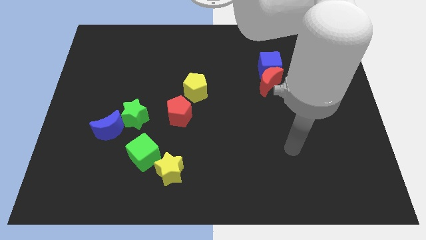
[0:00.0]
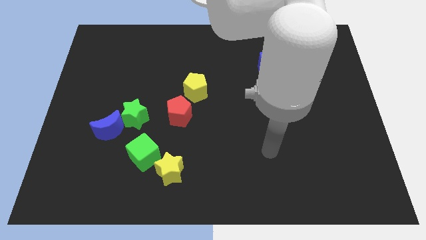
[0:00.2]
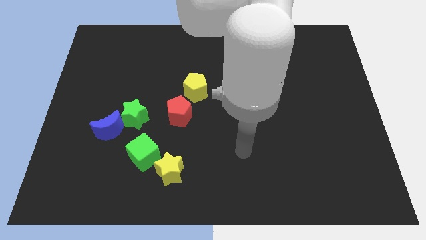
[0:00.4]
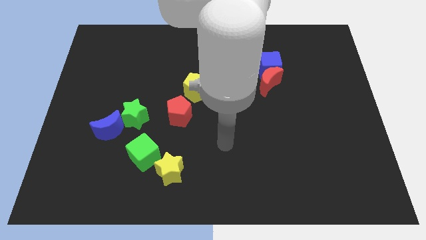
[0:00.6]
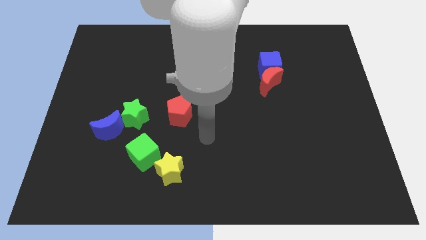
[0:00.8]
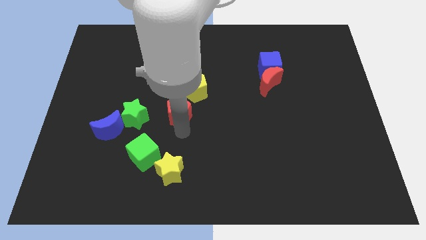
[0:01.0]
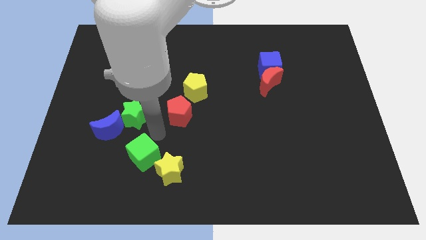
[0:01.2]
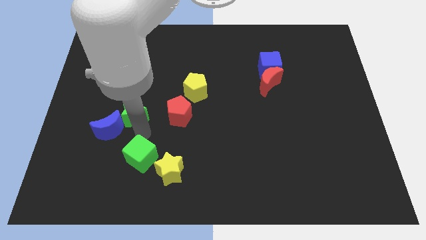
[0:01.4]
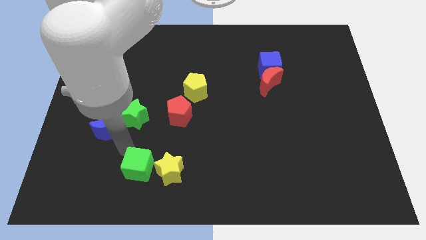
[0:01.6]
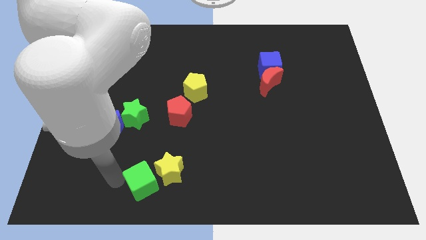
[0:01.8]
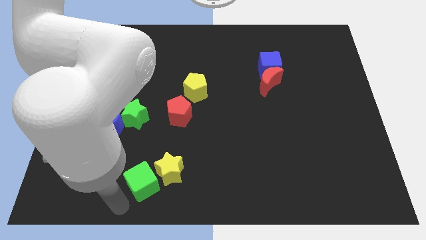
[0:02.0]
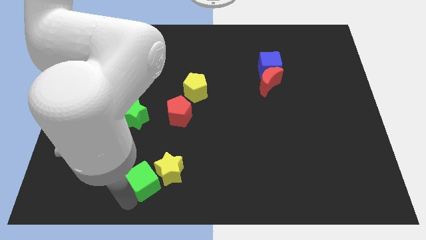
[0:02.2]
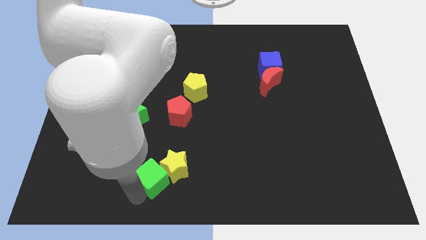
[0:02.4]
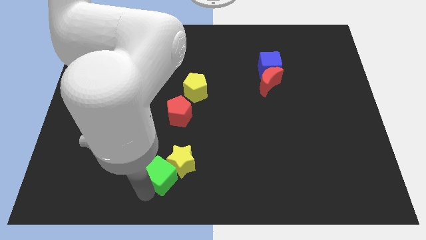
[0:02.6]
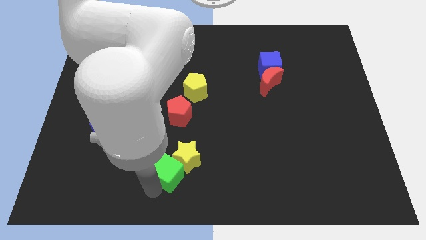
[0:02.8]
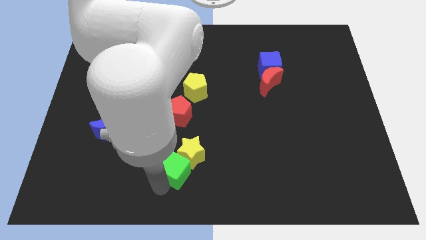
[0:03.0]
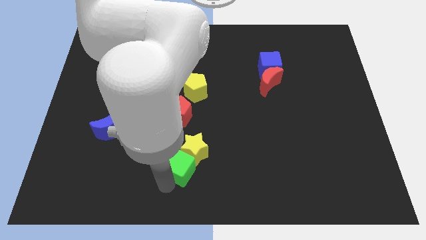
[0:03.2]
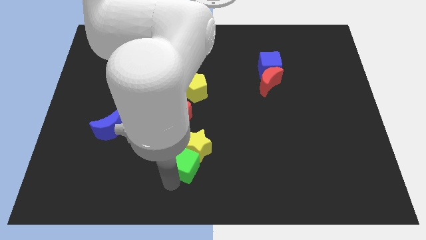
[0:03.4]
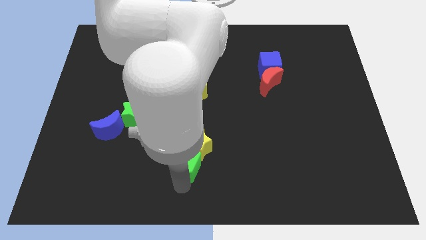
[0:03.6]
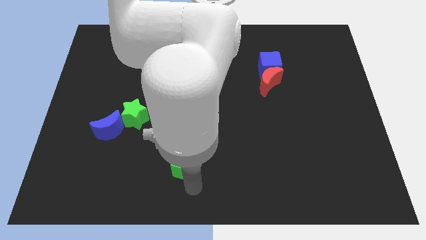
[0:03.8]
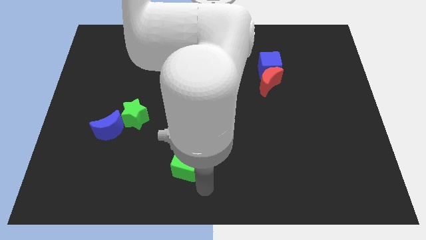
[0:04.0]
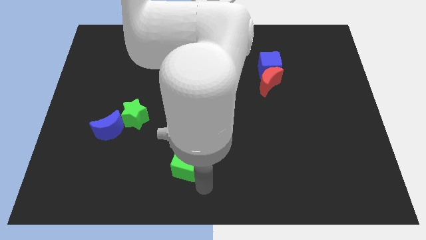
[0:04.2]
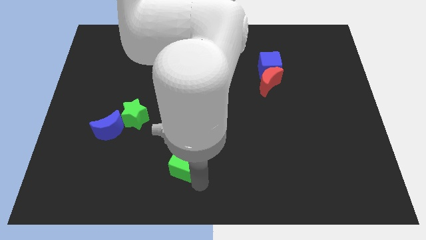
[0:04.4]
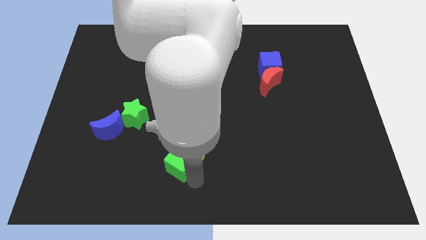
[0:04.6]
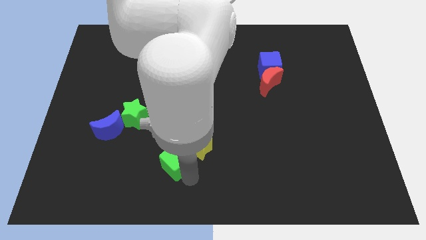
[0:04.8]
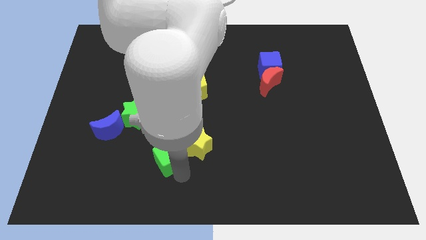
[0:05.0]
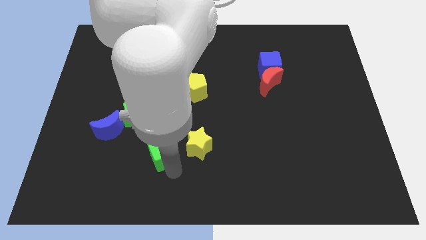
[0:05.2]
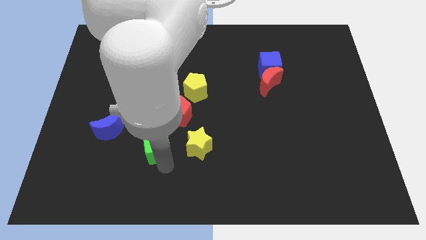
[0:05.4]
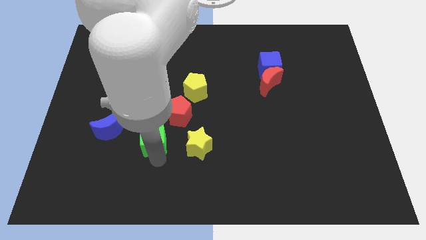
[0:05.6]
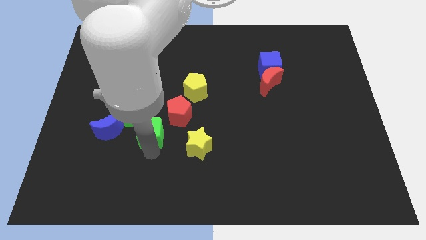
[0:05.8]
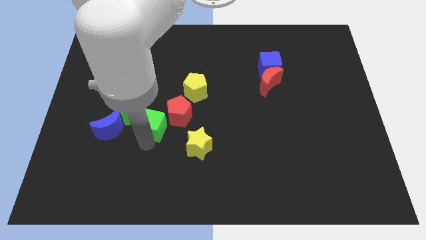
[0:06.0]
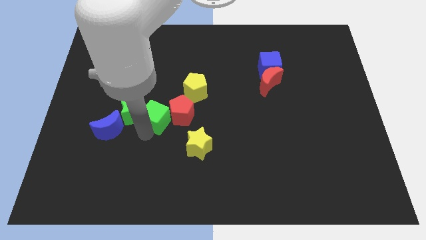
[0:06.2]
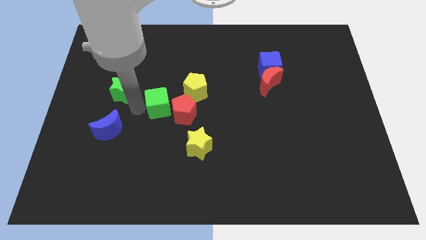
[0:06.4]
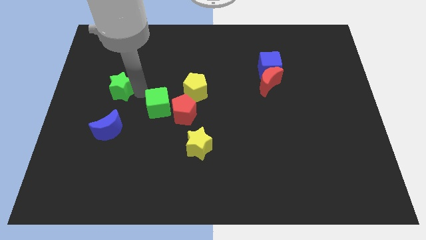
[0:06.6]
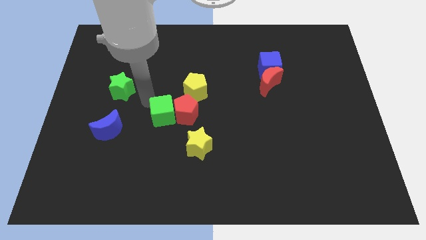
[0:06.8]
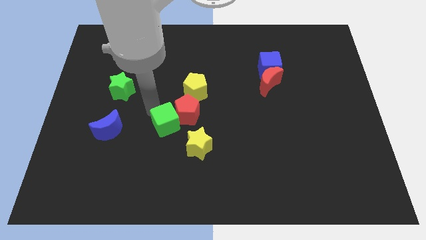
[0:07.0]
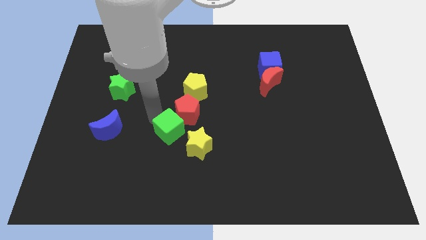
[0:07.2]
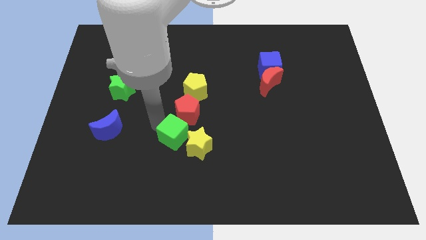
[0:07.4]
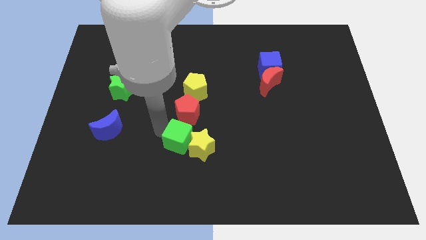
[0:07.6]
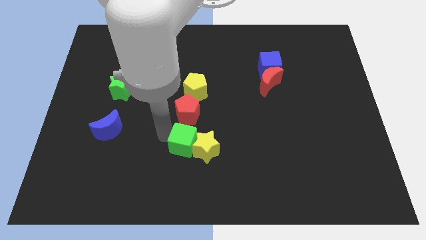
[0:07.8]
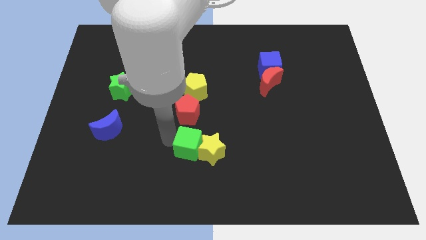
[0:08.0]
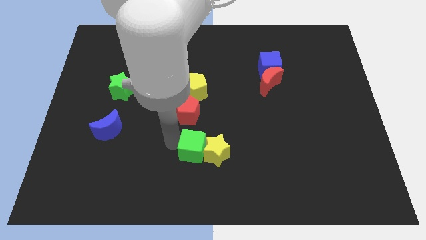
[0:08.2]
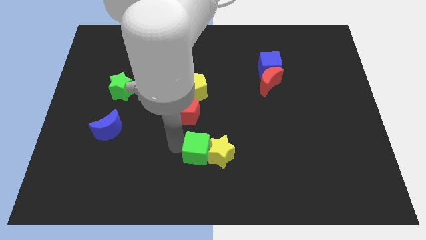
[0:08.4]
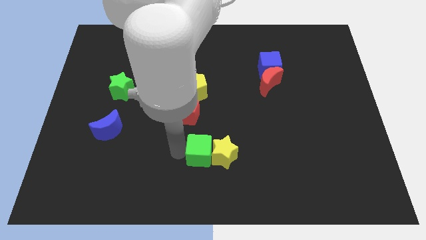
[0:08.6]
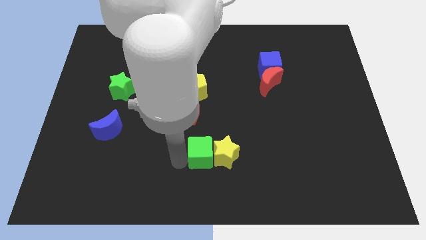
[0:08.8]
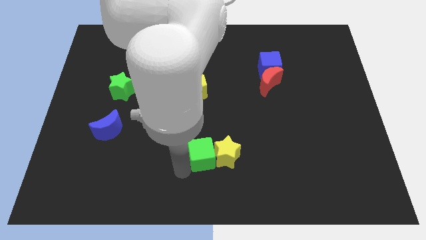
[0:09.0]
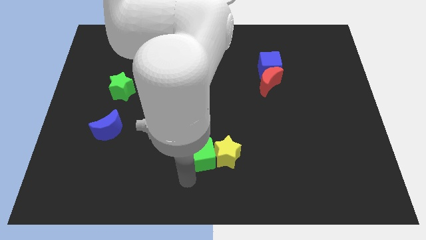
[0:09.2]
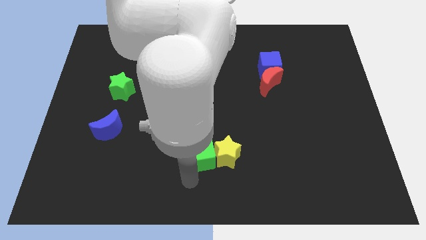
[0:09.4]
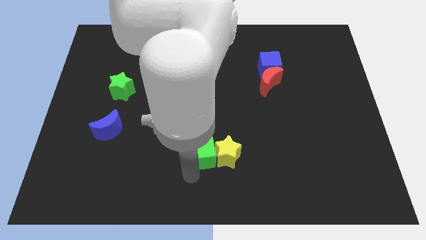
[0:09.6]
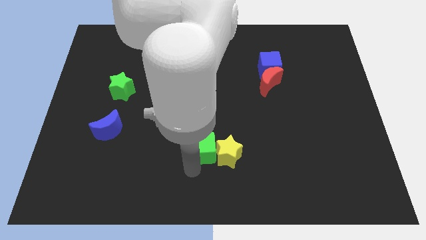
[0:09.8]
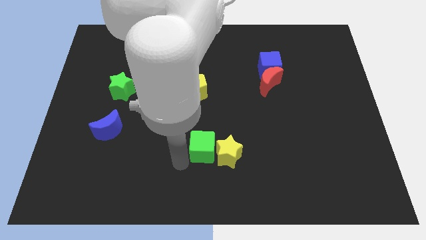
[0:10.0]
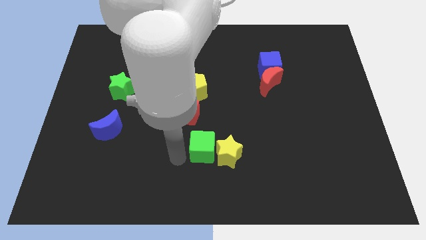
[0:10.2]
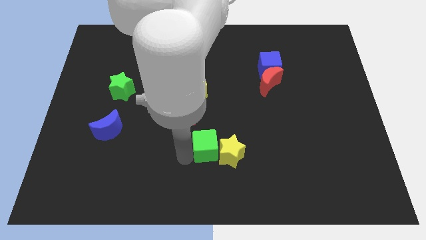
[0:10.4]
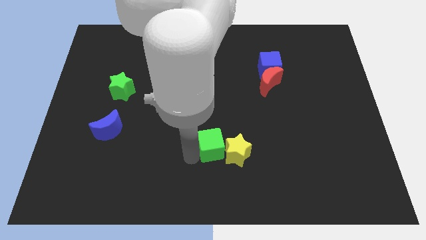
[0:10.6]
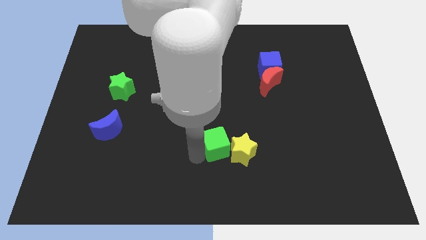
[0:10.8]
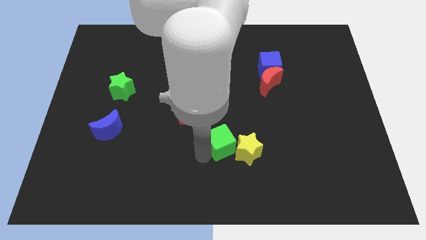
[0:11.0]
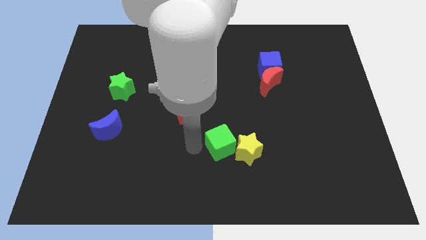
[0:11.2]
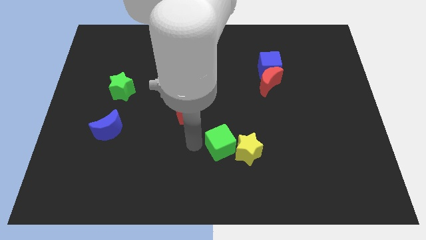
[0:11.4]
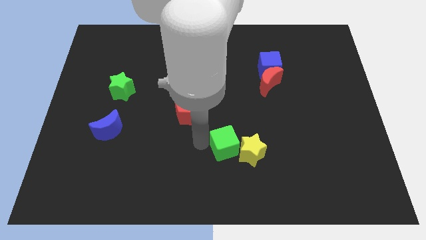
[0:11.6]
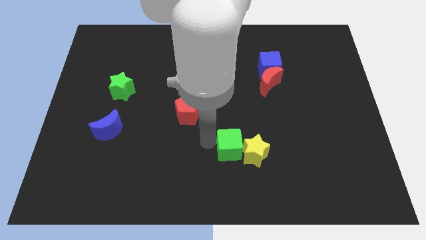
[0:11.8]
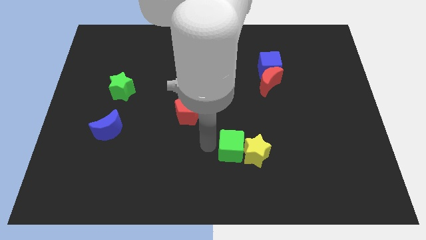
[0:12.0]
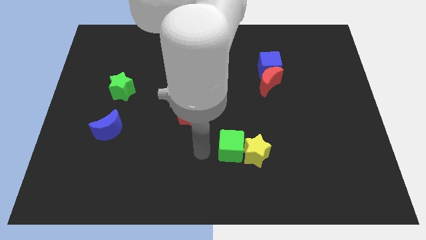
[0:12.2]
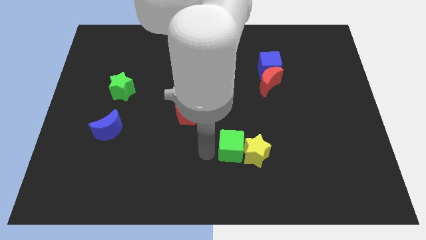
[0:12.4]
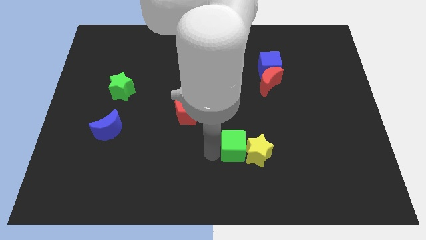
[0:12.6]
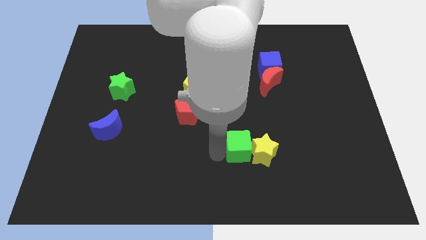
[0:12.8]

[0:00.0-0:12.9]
push the green cube right

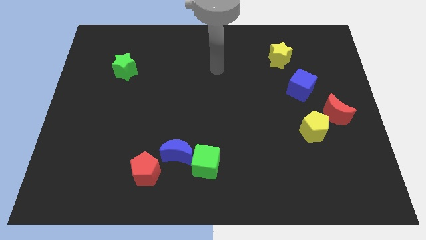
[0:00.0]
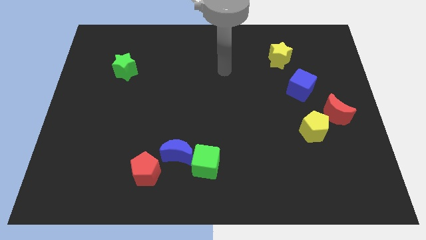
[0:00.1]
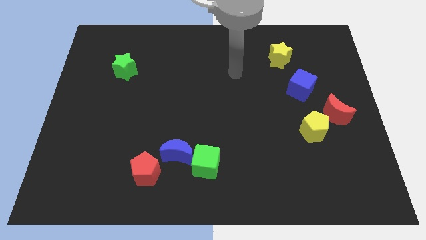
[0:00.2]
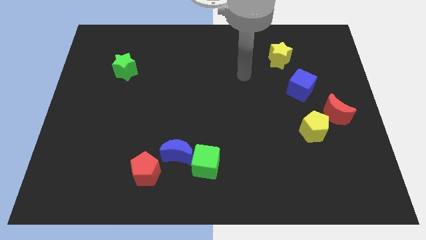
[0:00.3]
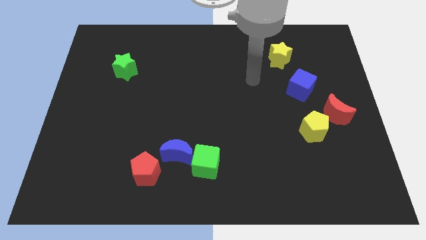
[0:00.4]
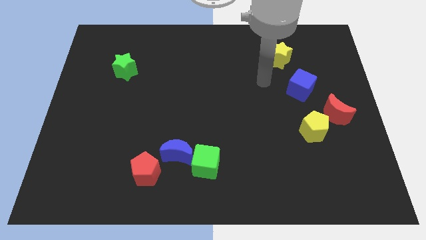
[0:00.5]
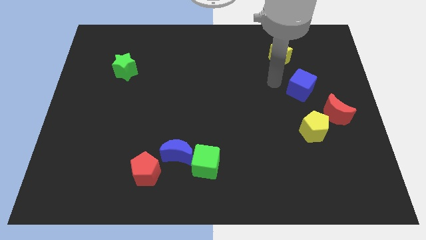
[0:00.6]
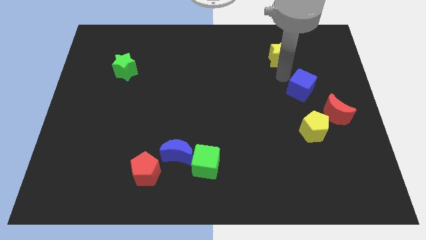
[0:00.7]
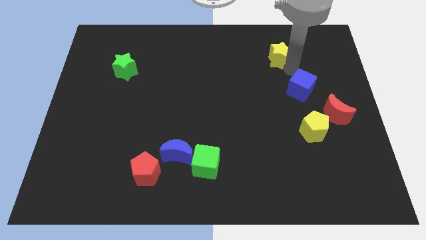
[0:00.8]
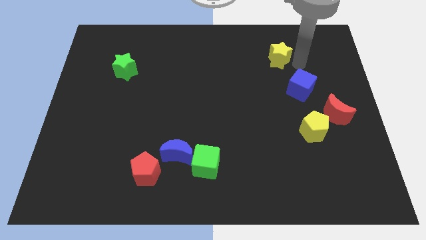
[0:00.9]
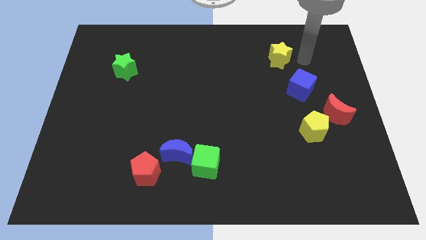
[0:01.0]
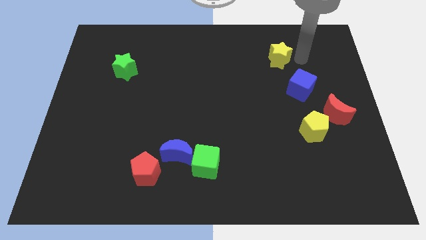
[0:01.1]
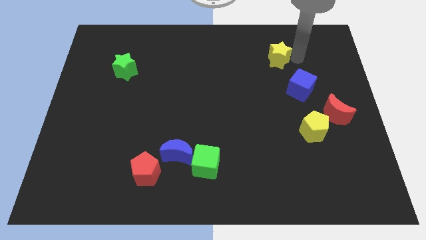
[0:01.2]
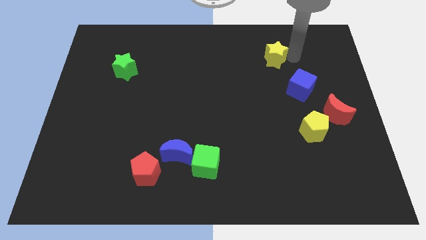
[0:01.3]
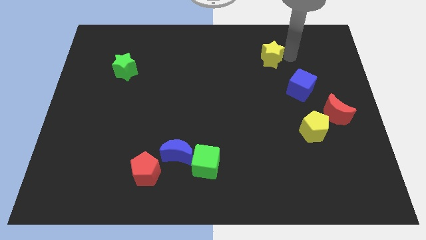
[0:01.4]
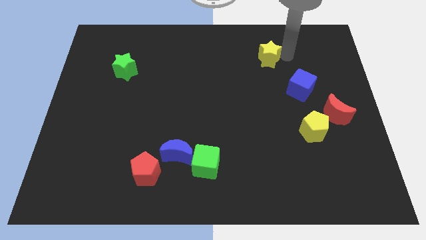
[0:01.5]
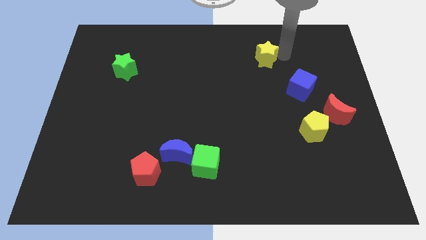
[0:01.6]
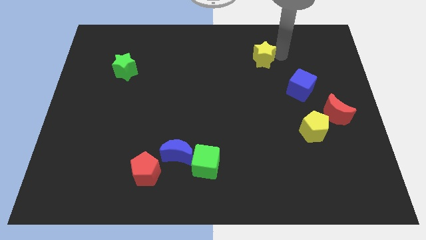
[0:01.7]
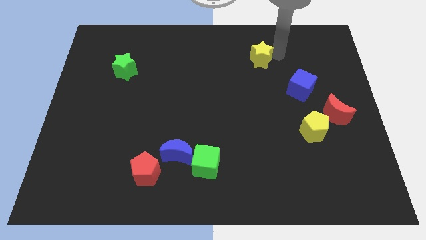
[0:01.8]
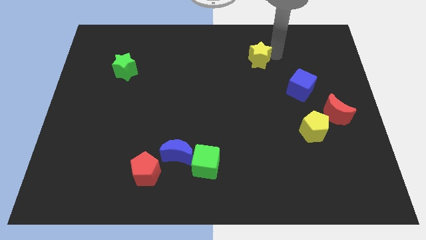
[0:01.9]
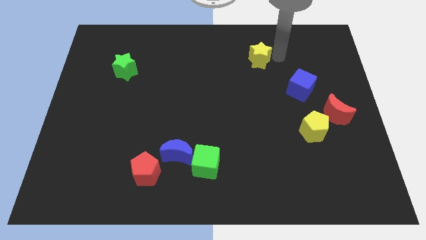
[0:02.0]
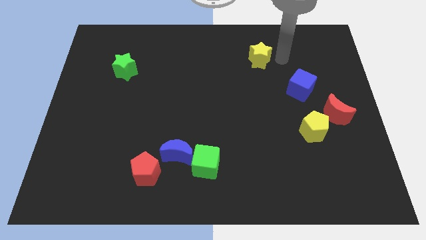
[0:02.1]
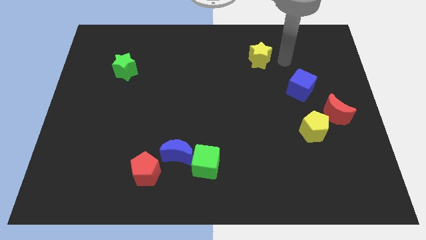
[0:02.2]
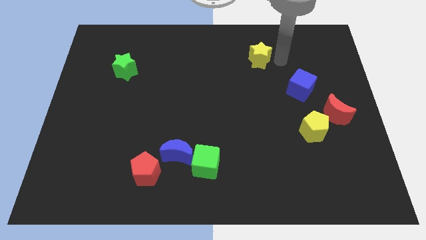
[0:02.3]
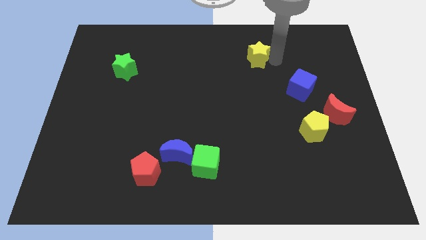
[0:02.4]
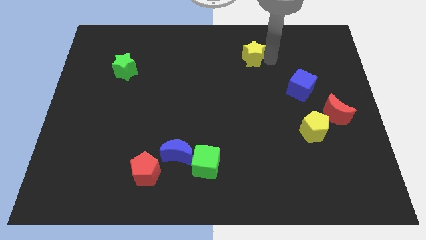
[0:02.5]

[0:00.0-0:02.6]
move the yellow star to the left slightly
